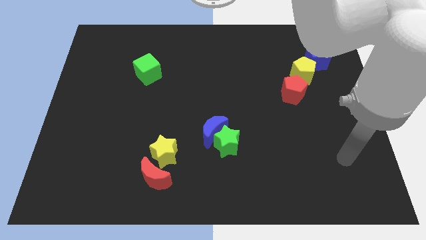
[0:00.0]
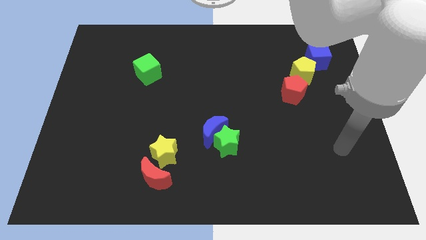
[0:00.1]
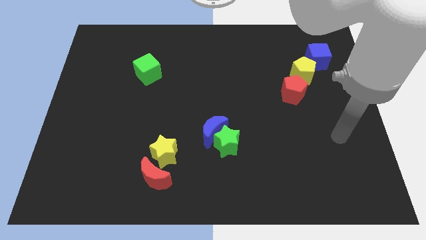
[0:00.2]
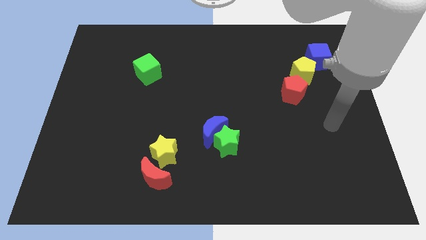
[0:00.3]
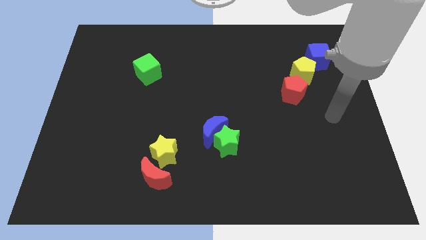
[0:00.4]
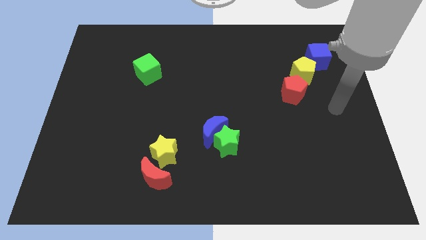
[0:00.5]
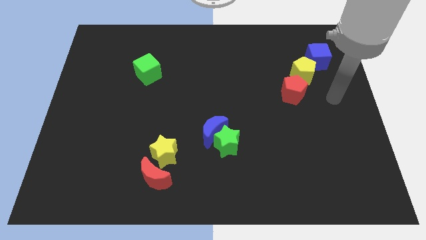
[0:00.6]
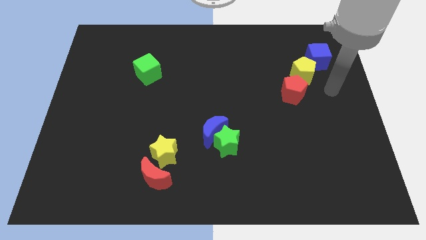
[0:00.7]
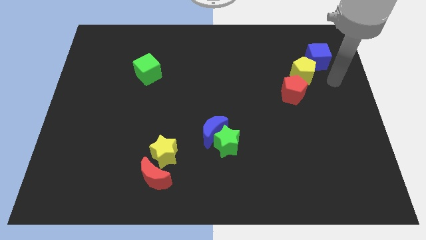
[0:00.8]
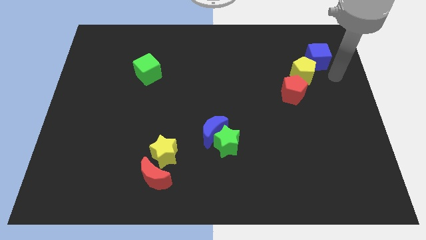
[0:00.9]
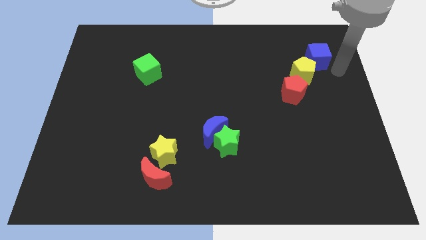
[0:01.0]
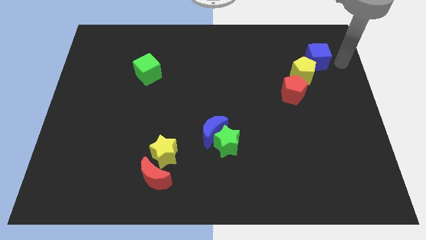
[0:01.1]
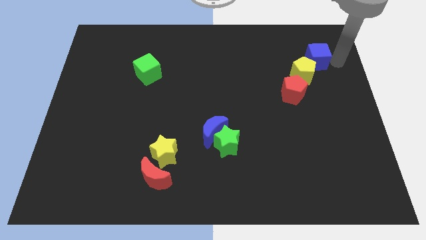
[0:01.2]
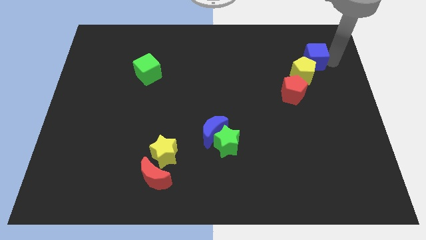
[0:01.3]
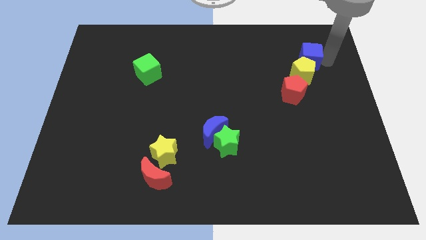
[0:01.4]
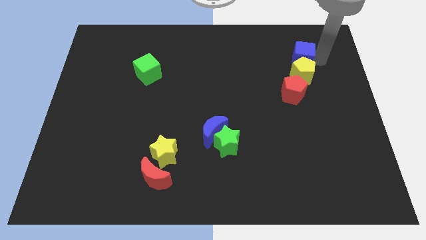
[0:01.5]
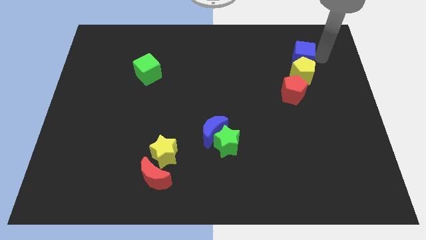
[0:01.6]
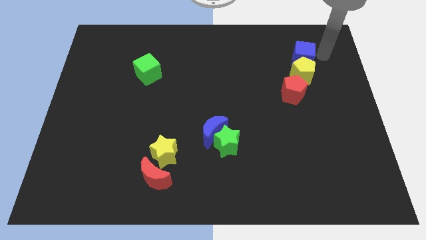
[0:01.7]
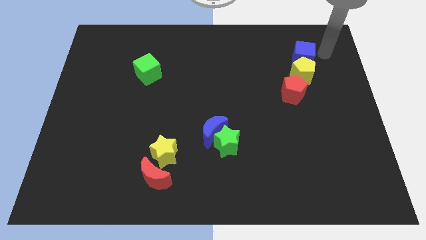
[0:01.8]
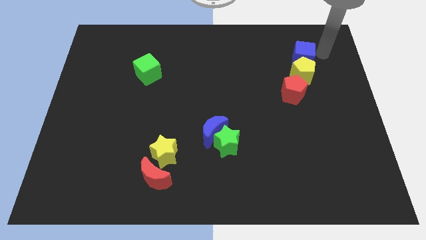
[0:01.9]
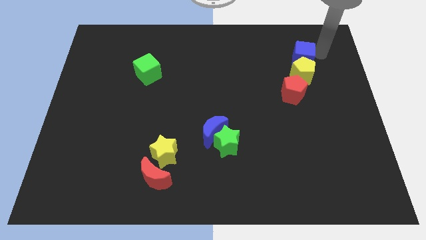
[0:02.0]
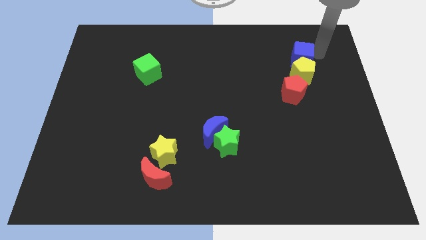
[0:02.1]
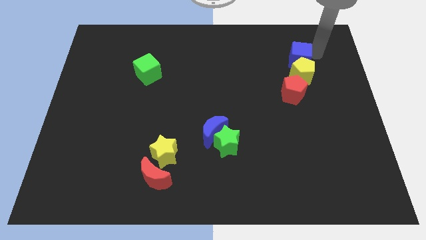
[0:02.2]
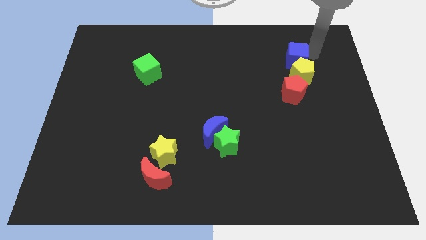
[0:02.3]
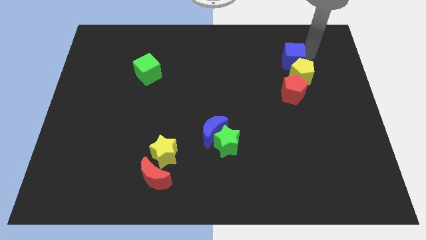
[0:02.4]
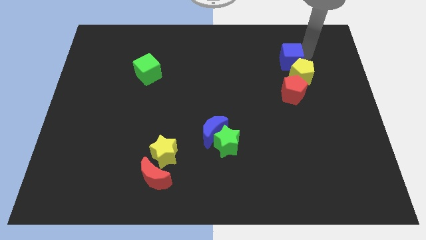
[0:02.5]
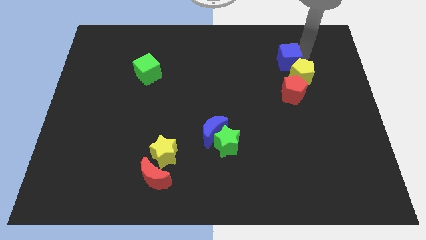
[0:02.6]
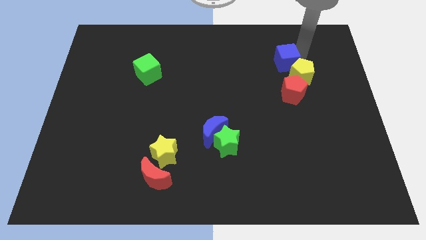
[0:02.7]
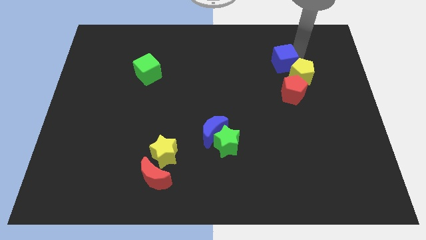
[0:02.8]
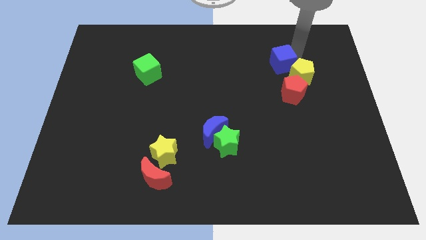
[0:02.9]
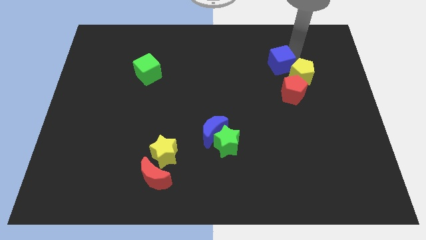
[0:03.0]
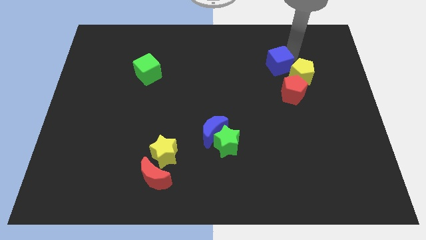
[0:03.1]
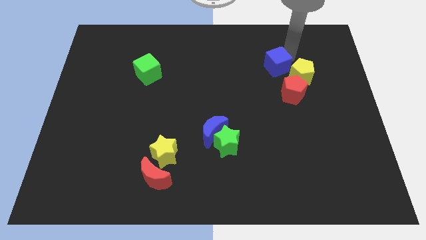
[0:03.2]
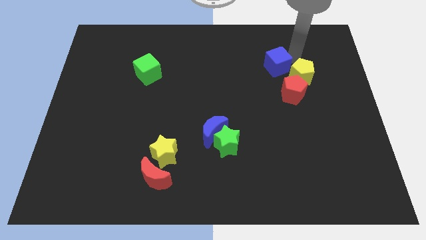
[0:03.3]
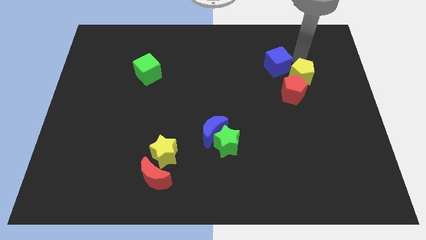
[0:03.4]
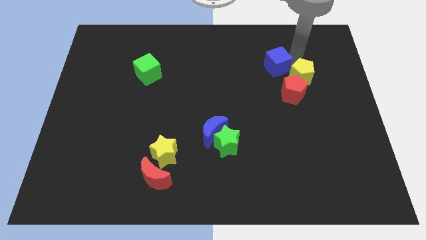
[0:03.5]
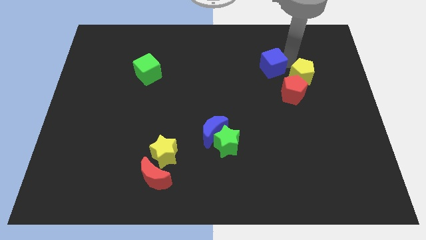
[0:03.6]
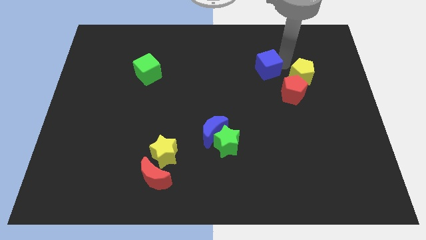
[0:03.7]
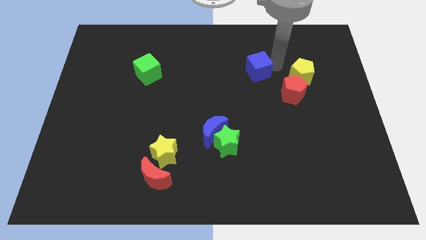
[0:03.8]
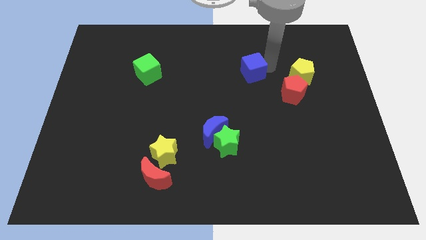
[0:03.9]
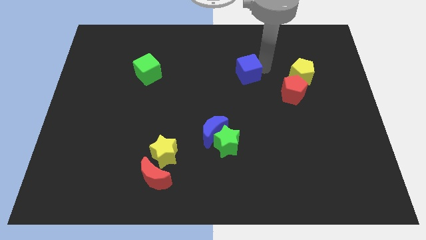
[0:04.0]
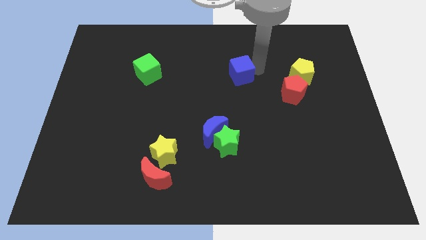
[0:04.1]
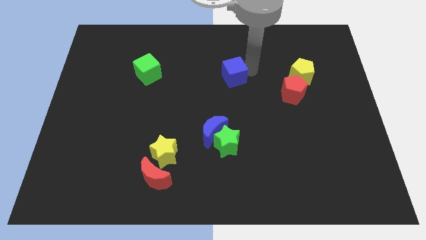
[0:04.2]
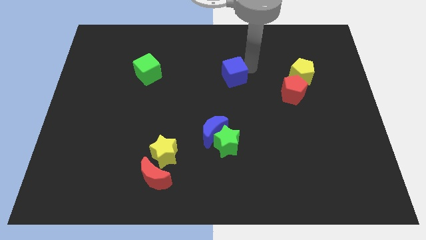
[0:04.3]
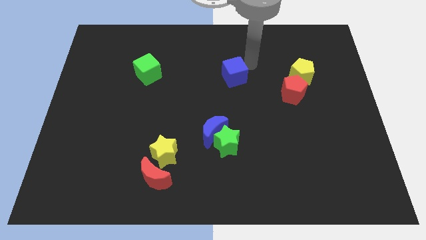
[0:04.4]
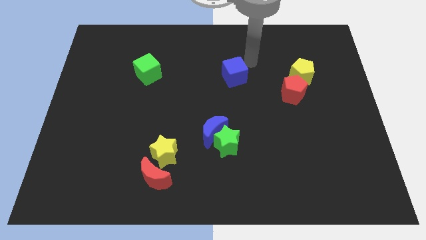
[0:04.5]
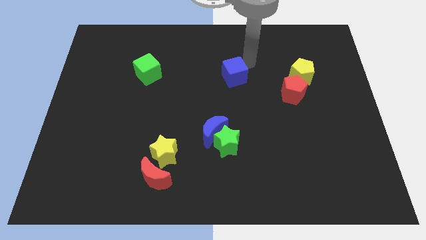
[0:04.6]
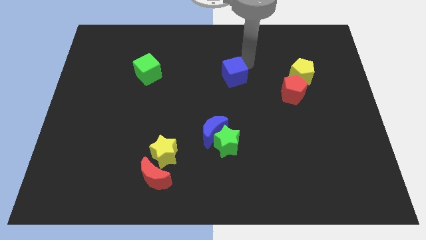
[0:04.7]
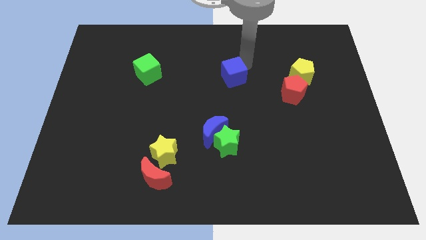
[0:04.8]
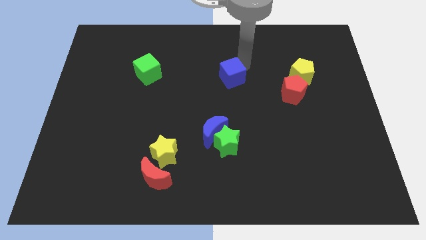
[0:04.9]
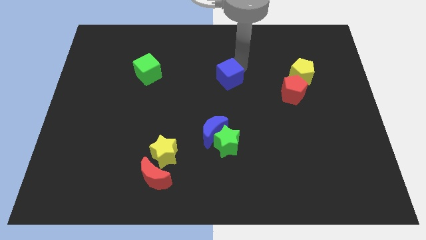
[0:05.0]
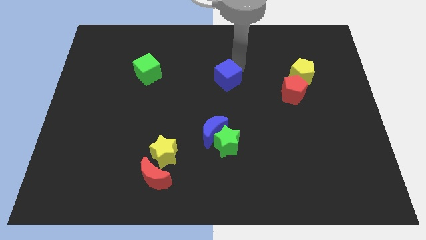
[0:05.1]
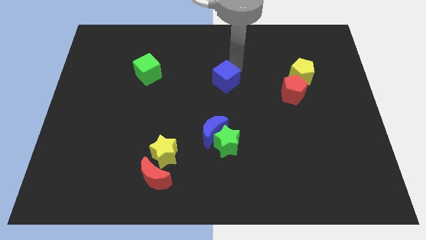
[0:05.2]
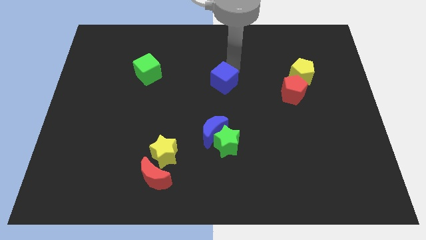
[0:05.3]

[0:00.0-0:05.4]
move the blue cube to the top side of the blue moon

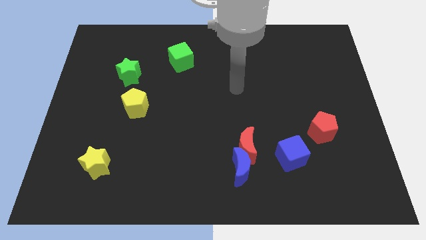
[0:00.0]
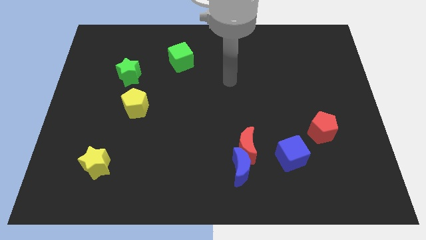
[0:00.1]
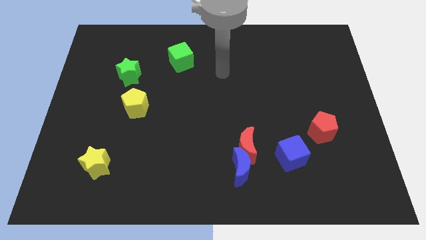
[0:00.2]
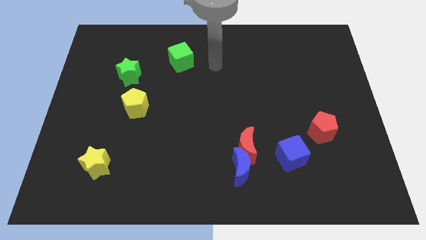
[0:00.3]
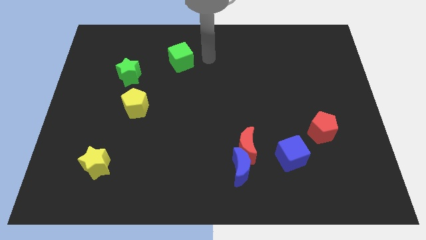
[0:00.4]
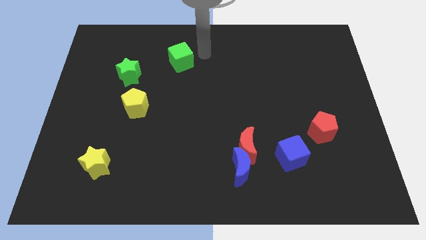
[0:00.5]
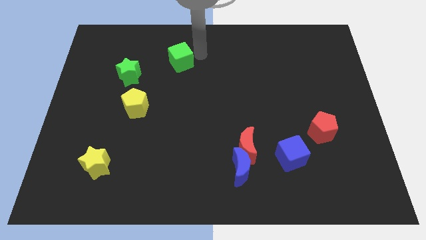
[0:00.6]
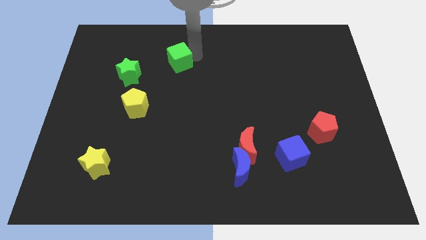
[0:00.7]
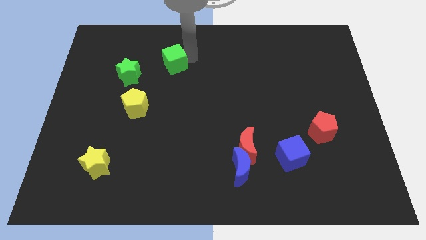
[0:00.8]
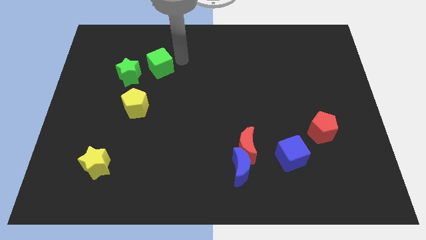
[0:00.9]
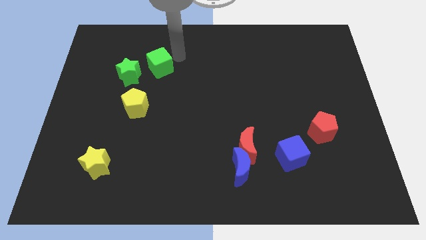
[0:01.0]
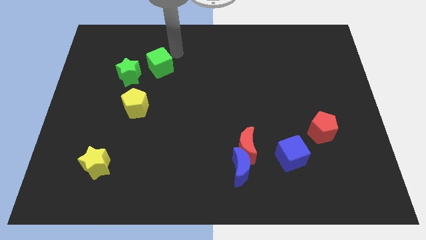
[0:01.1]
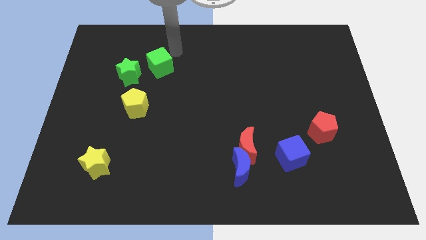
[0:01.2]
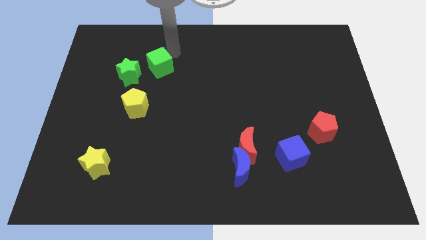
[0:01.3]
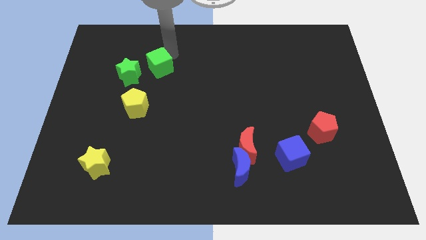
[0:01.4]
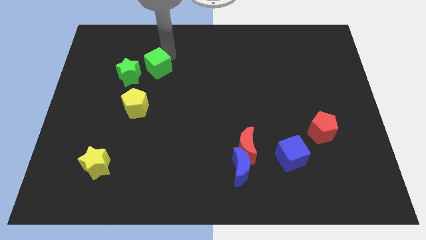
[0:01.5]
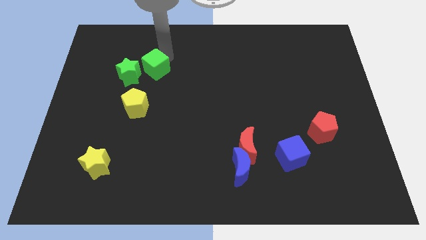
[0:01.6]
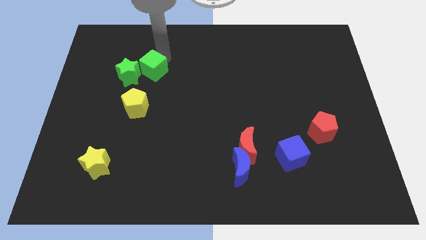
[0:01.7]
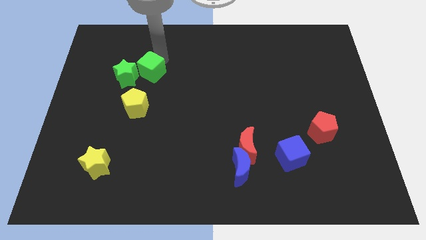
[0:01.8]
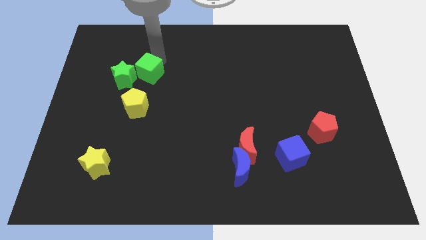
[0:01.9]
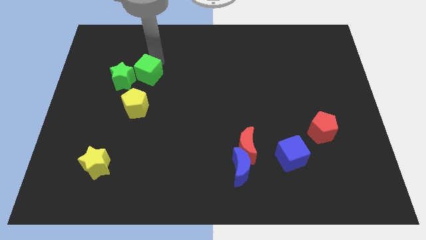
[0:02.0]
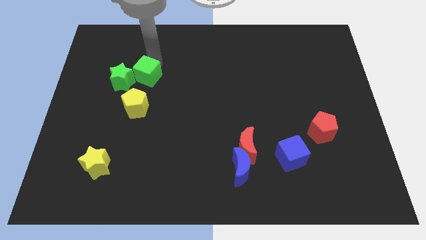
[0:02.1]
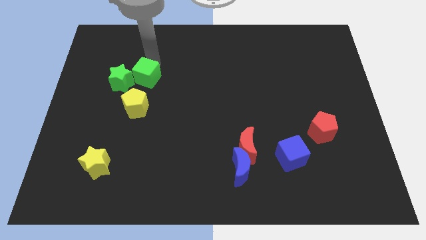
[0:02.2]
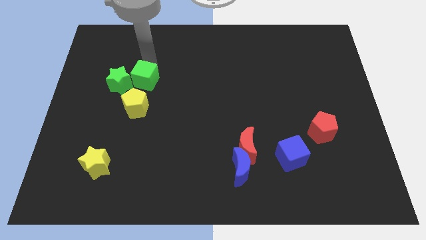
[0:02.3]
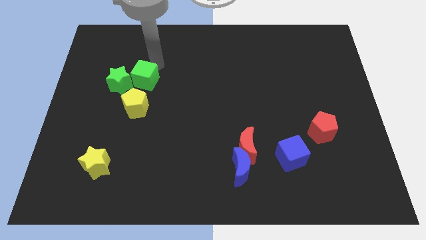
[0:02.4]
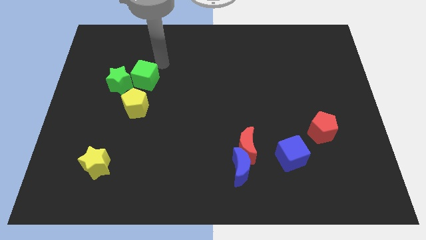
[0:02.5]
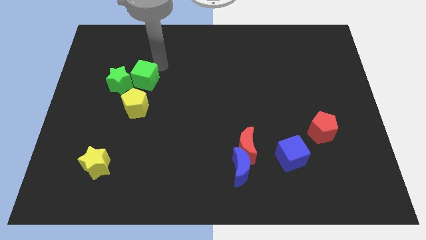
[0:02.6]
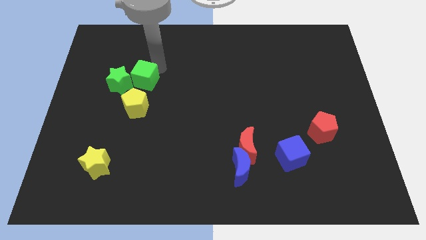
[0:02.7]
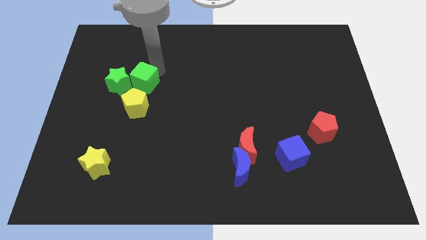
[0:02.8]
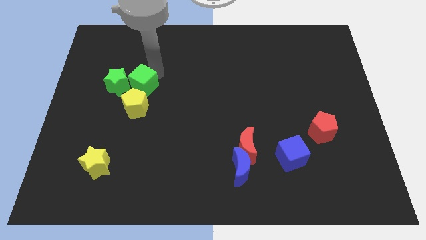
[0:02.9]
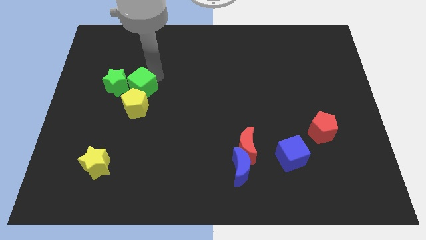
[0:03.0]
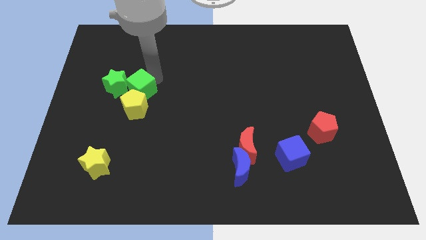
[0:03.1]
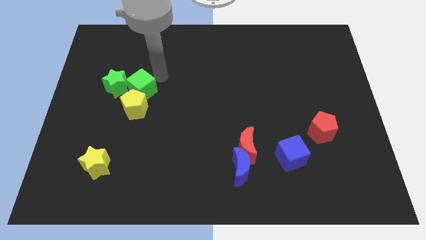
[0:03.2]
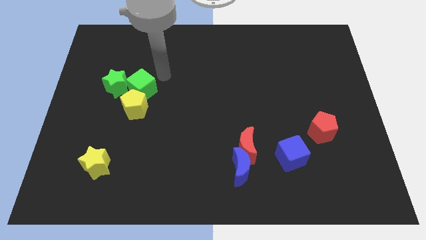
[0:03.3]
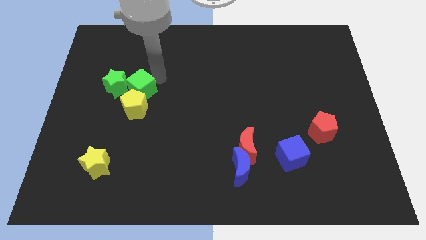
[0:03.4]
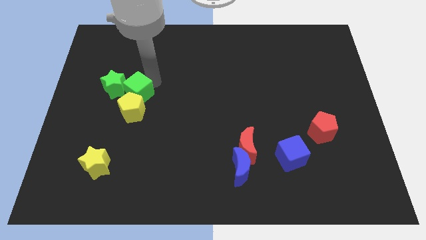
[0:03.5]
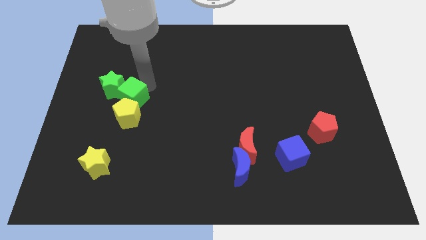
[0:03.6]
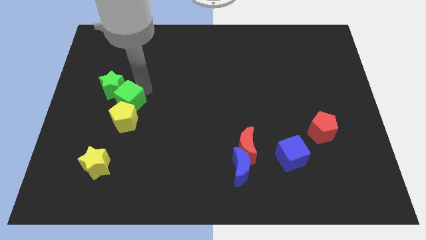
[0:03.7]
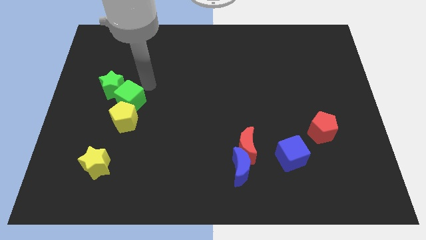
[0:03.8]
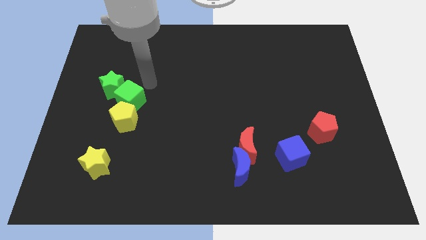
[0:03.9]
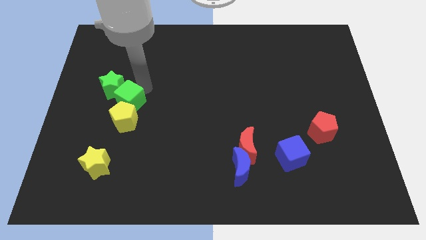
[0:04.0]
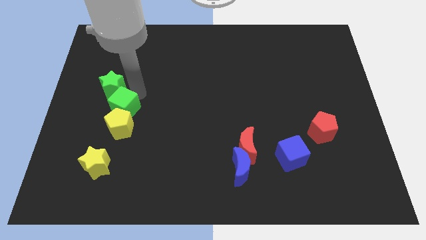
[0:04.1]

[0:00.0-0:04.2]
push the green cube to the bottom side of the green star
